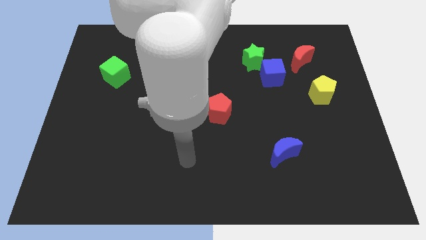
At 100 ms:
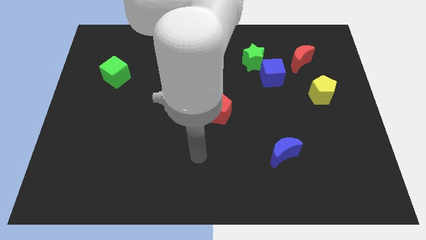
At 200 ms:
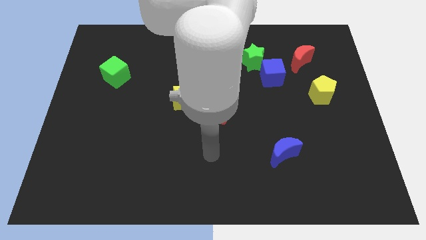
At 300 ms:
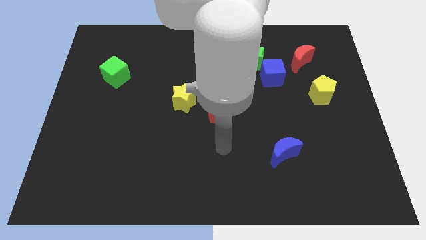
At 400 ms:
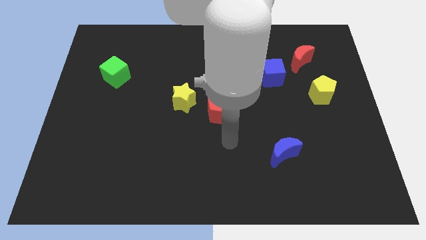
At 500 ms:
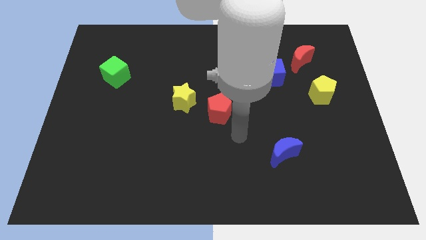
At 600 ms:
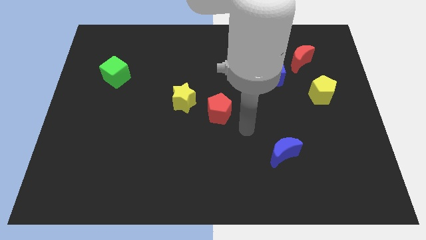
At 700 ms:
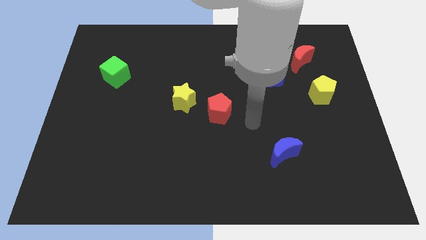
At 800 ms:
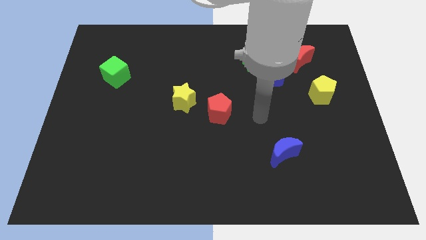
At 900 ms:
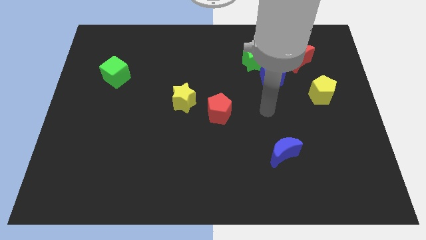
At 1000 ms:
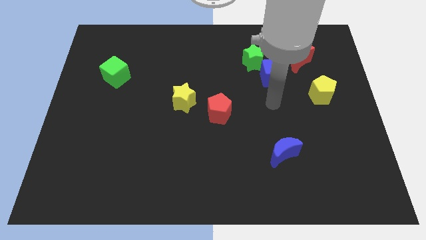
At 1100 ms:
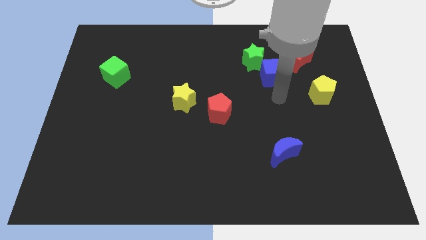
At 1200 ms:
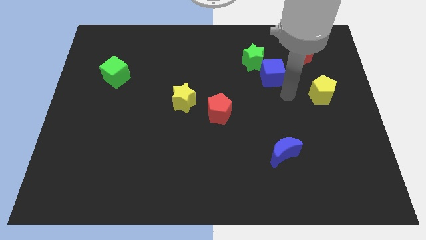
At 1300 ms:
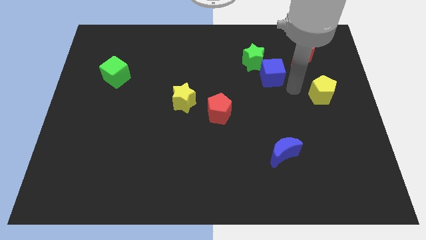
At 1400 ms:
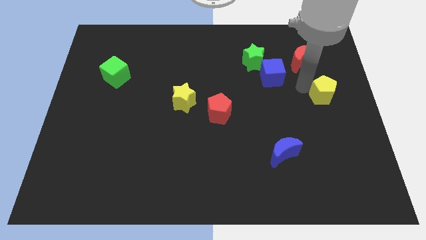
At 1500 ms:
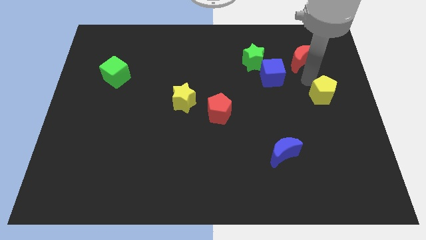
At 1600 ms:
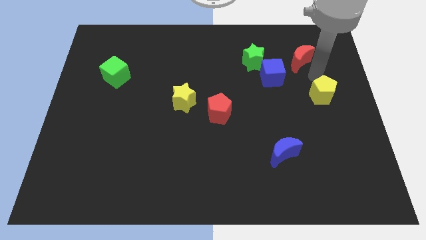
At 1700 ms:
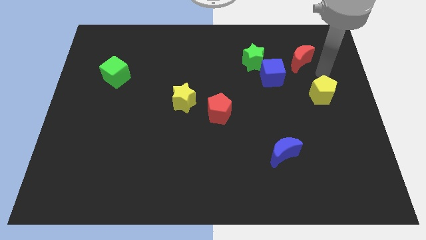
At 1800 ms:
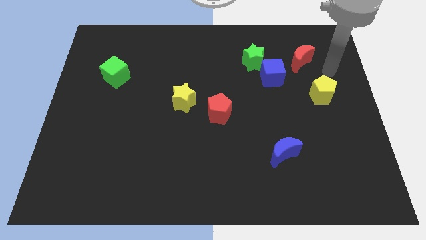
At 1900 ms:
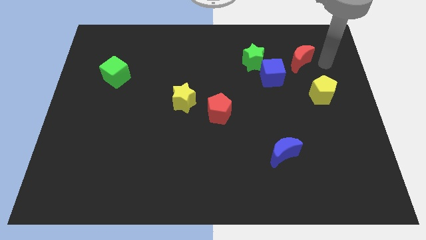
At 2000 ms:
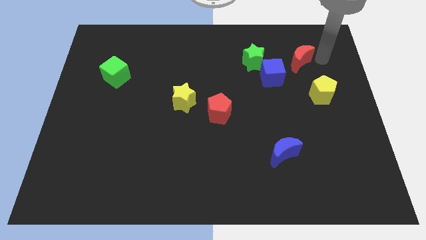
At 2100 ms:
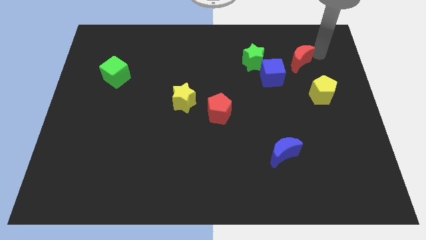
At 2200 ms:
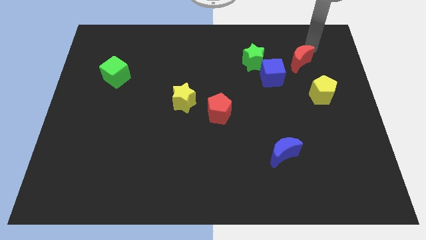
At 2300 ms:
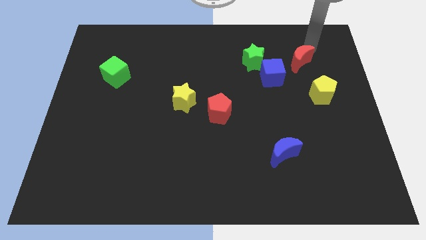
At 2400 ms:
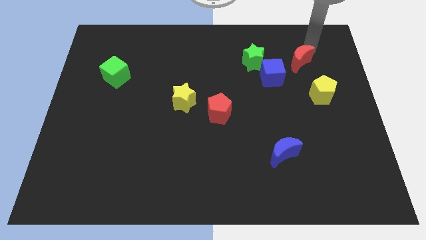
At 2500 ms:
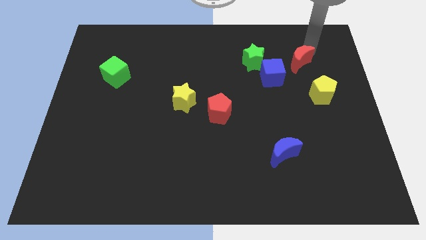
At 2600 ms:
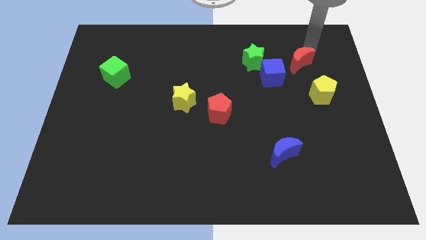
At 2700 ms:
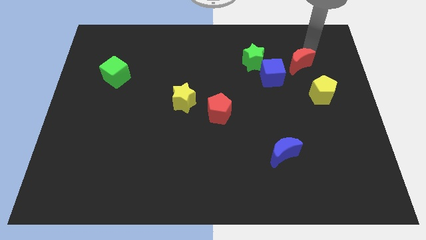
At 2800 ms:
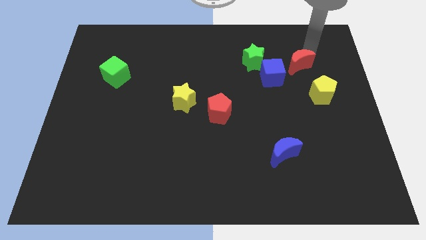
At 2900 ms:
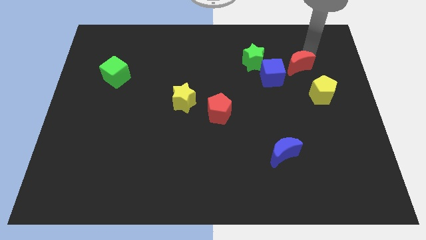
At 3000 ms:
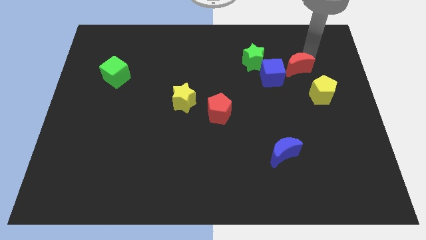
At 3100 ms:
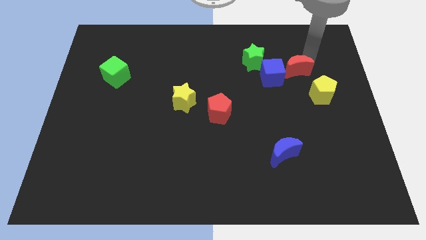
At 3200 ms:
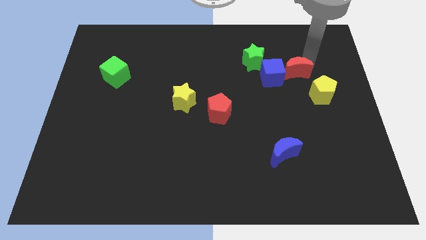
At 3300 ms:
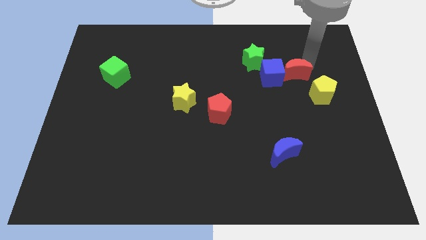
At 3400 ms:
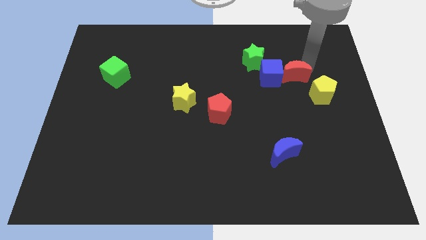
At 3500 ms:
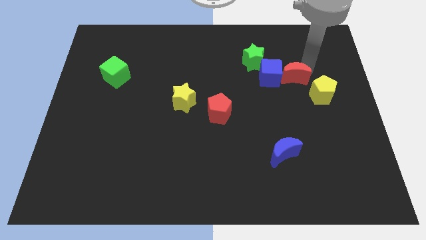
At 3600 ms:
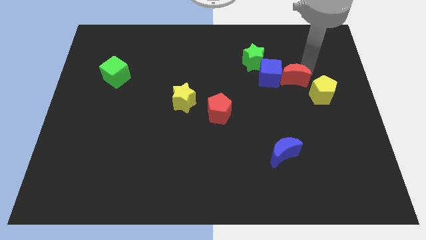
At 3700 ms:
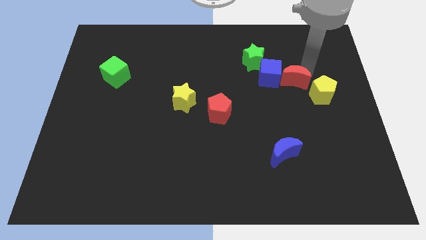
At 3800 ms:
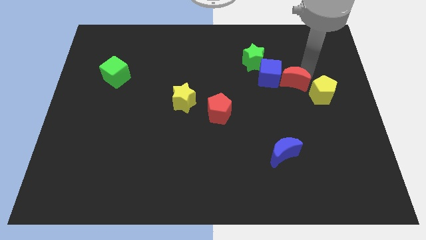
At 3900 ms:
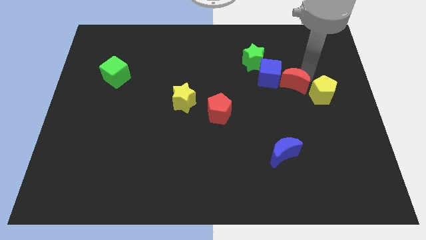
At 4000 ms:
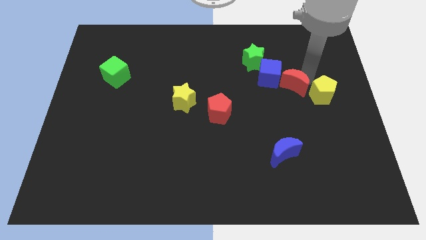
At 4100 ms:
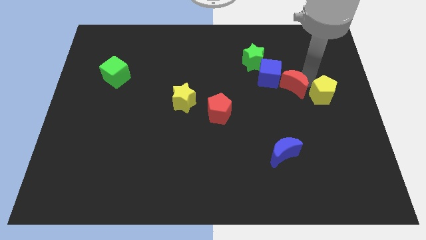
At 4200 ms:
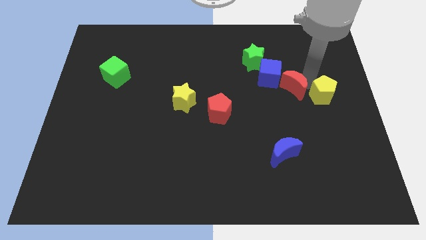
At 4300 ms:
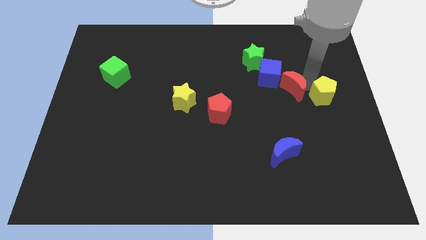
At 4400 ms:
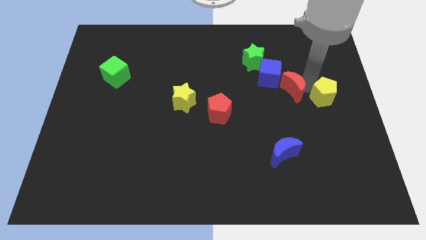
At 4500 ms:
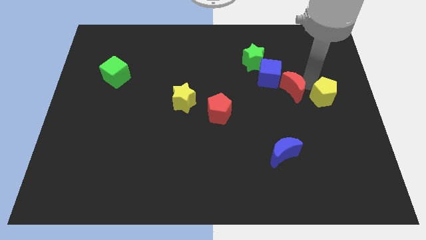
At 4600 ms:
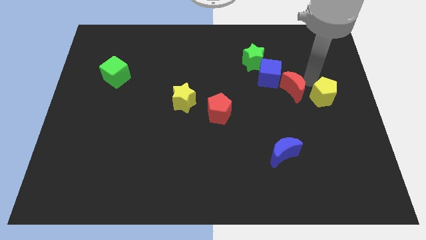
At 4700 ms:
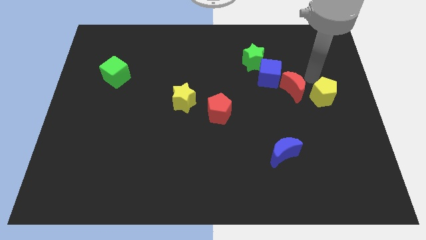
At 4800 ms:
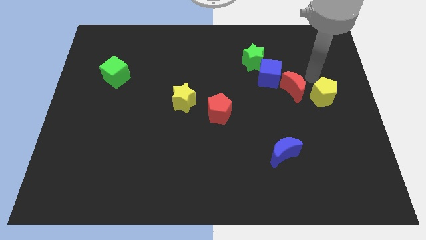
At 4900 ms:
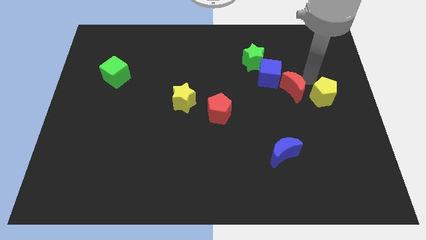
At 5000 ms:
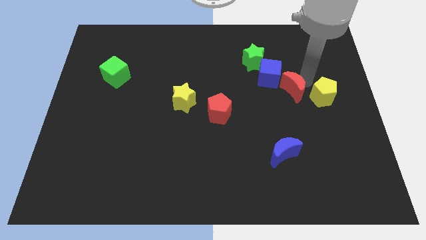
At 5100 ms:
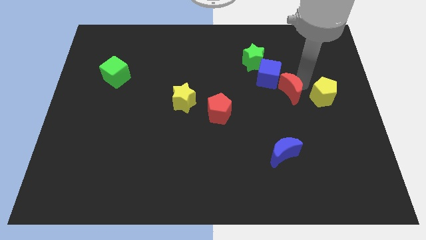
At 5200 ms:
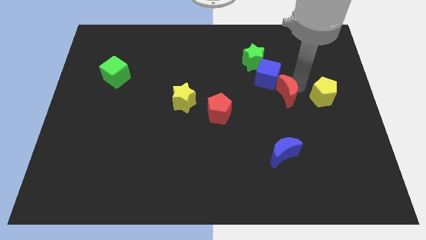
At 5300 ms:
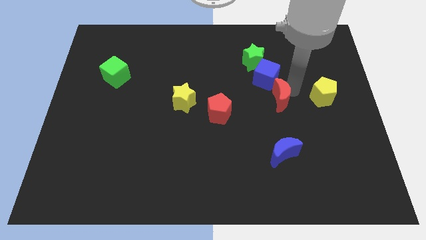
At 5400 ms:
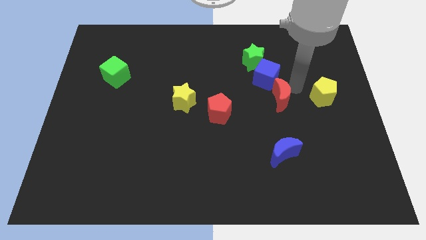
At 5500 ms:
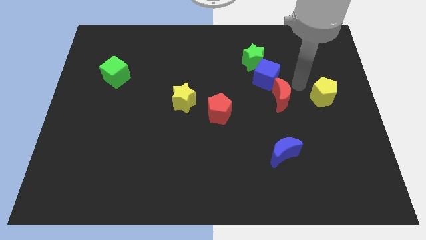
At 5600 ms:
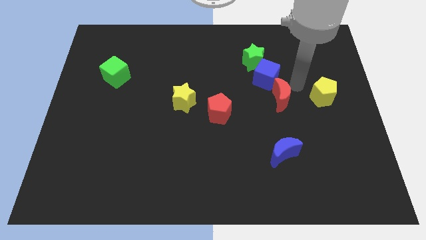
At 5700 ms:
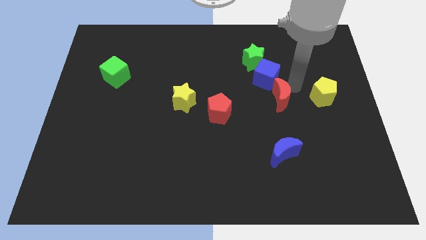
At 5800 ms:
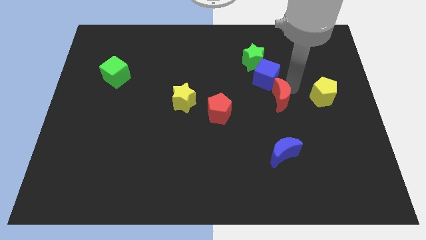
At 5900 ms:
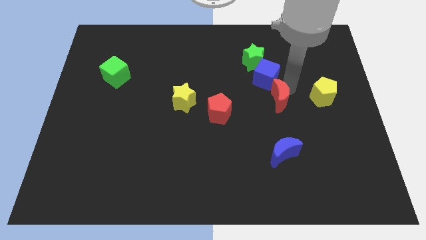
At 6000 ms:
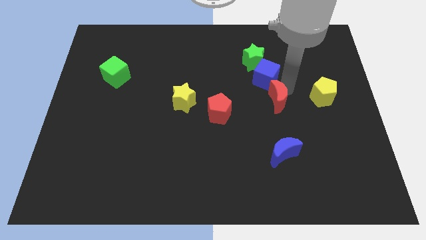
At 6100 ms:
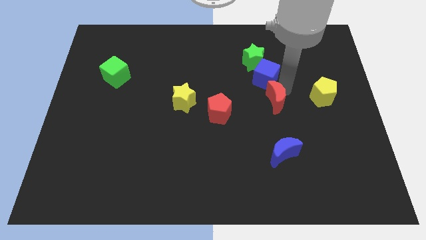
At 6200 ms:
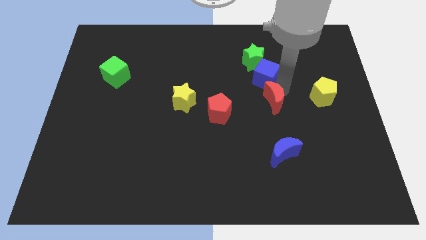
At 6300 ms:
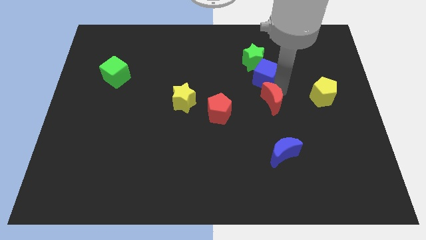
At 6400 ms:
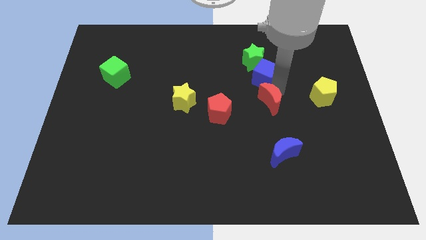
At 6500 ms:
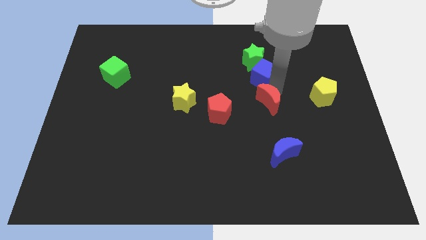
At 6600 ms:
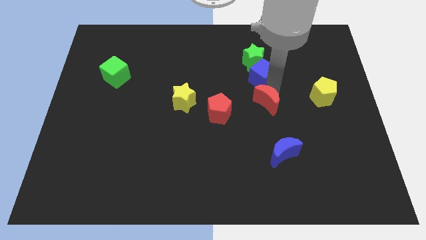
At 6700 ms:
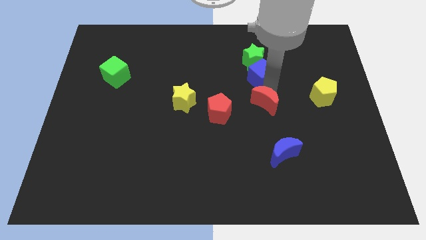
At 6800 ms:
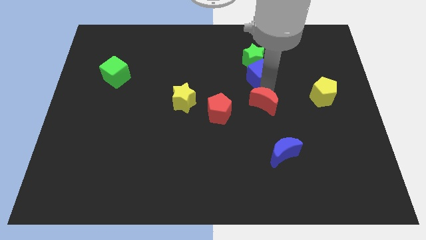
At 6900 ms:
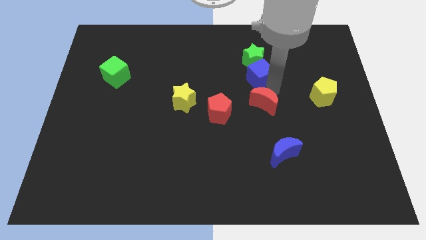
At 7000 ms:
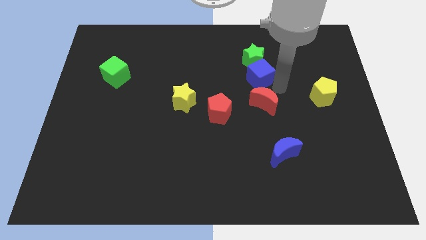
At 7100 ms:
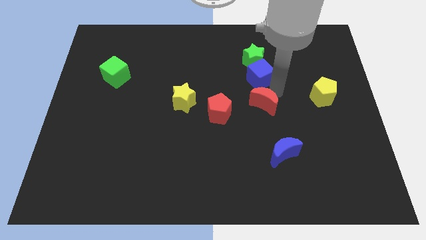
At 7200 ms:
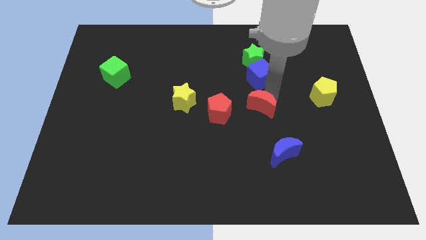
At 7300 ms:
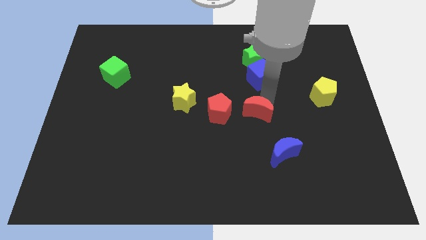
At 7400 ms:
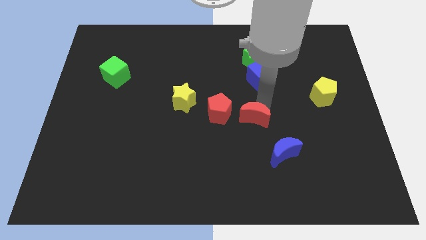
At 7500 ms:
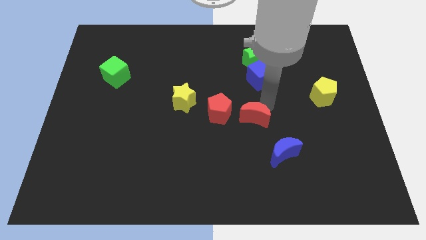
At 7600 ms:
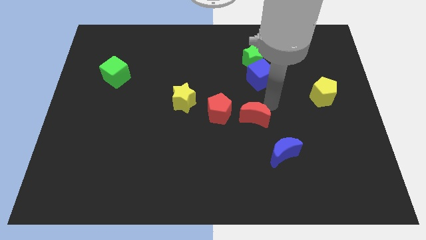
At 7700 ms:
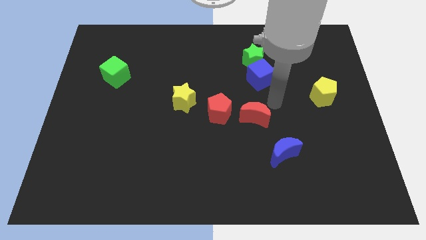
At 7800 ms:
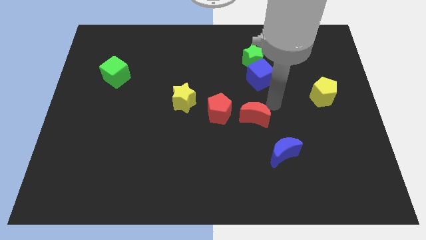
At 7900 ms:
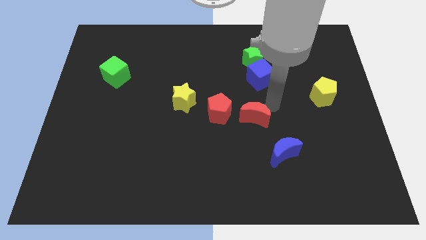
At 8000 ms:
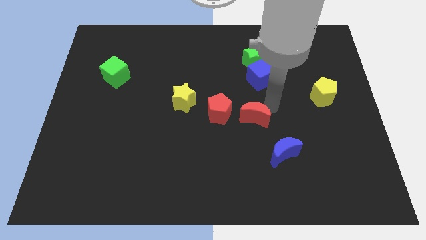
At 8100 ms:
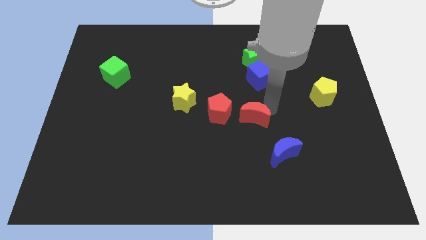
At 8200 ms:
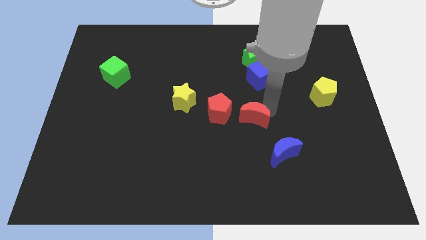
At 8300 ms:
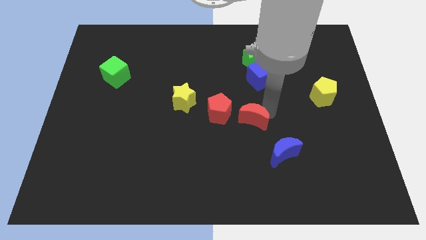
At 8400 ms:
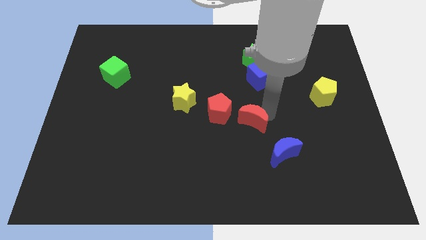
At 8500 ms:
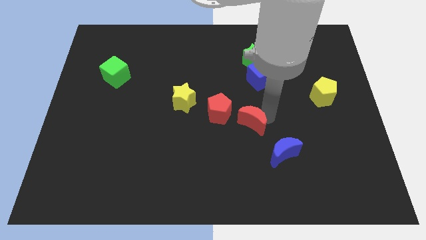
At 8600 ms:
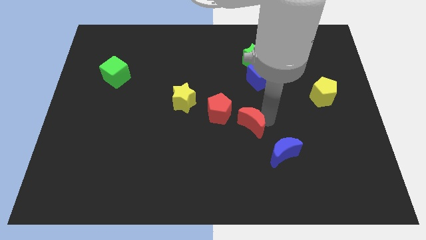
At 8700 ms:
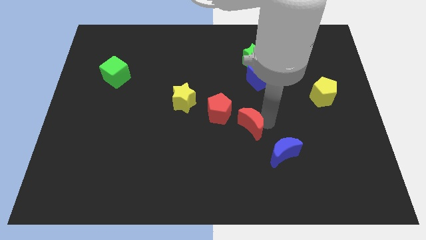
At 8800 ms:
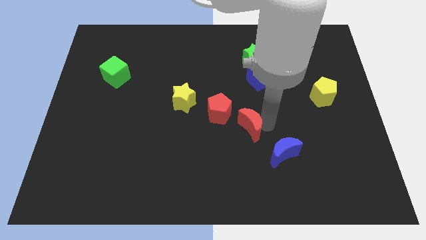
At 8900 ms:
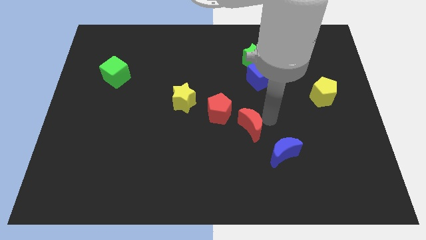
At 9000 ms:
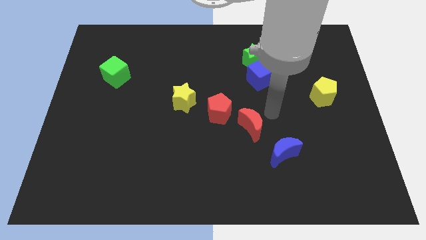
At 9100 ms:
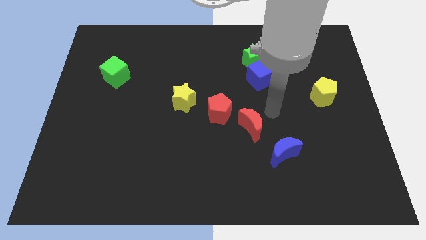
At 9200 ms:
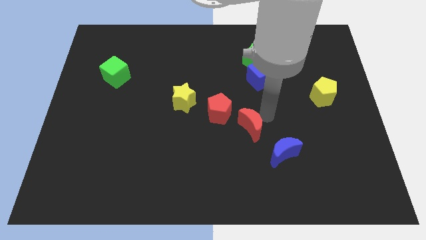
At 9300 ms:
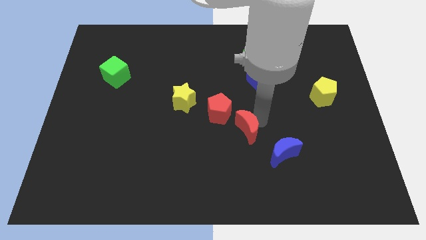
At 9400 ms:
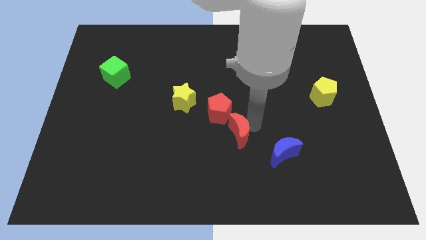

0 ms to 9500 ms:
push the red moon below the red pentagon
